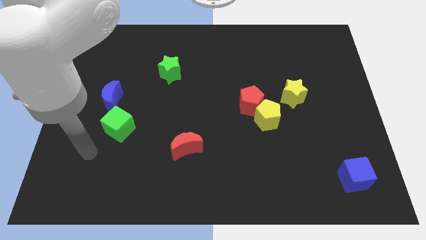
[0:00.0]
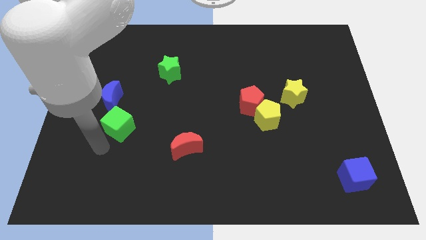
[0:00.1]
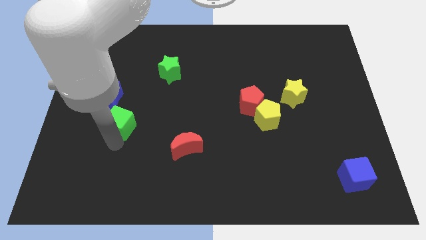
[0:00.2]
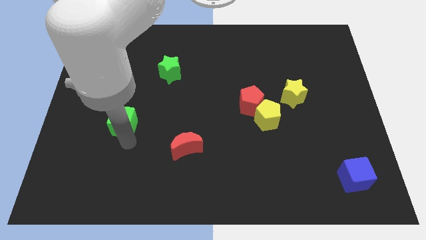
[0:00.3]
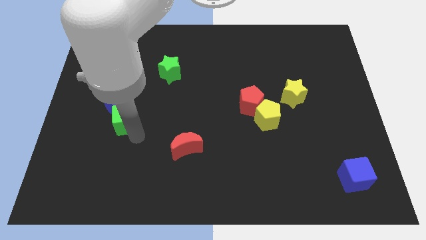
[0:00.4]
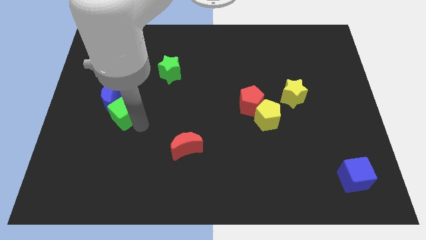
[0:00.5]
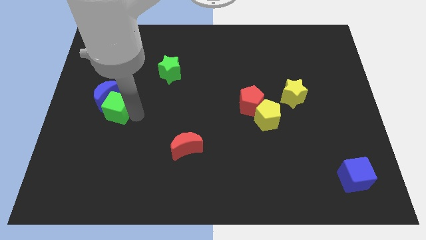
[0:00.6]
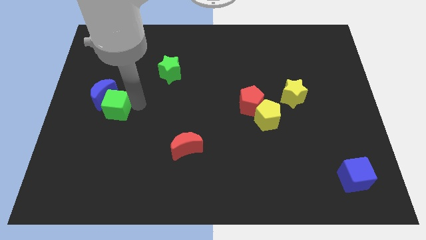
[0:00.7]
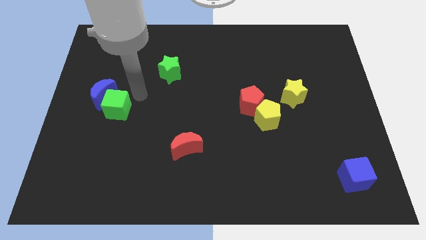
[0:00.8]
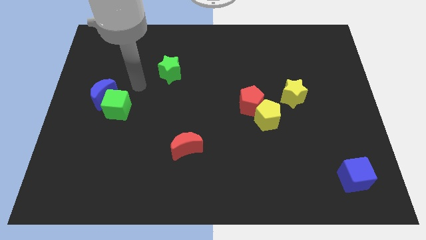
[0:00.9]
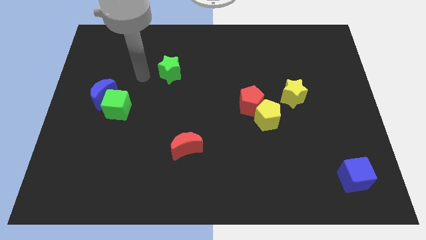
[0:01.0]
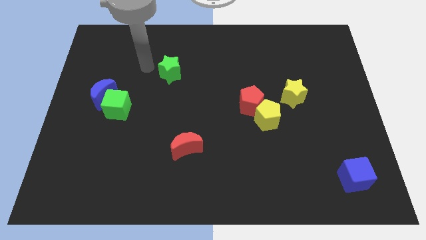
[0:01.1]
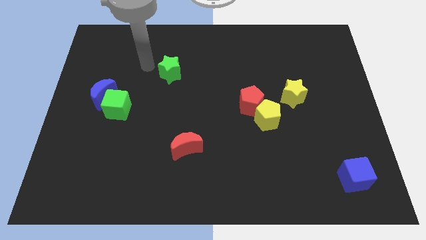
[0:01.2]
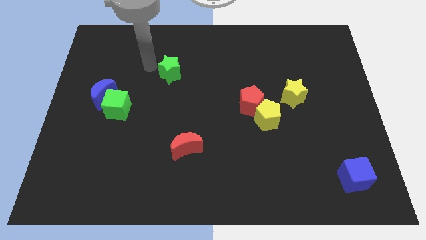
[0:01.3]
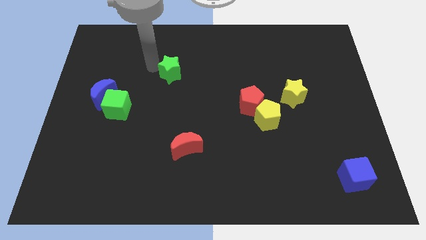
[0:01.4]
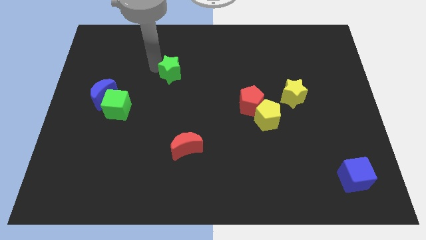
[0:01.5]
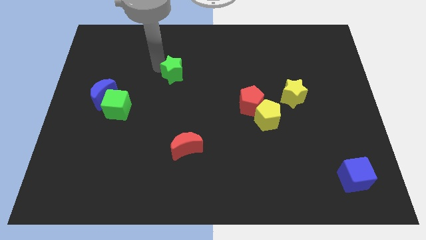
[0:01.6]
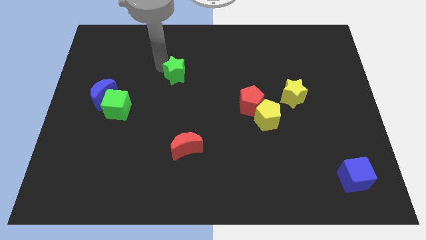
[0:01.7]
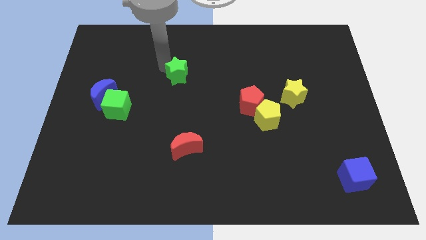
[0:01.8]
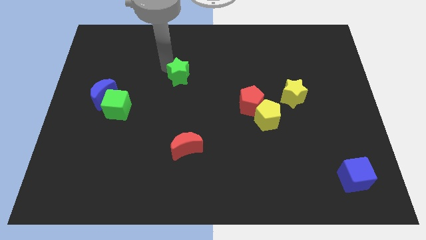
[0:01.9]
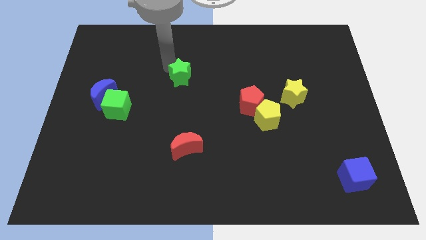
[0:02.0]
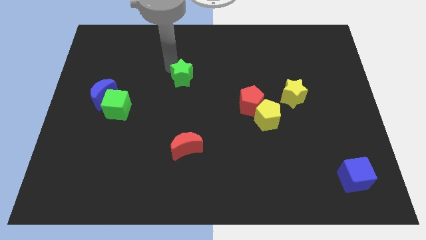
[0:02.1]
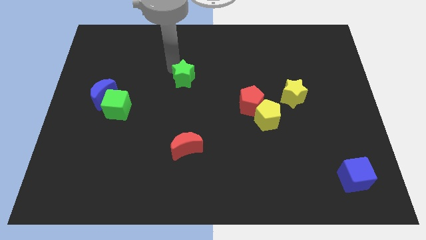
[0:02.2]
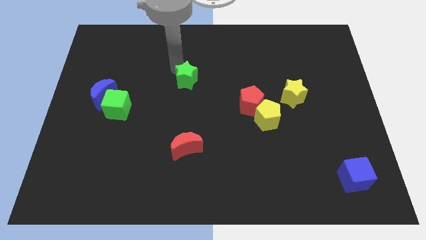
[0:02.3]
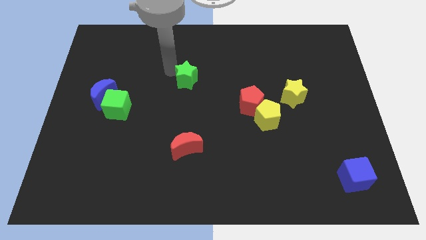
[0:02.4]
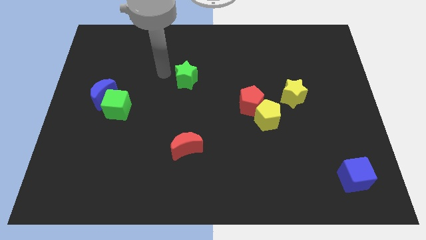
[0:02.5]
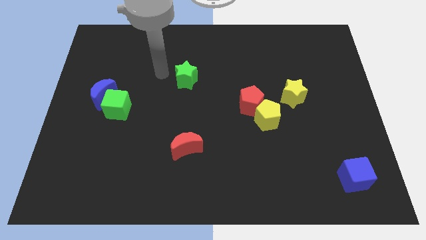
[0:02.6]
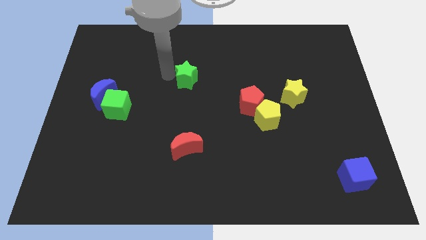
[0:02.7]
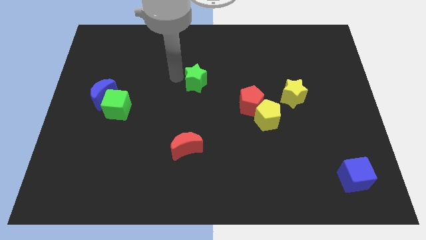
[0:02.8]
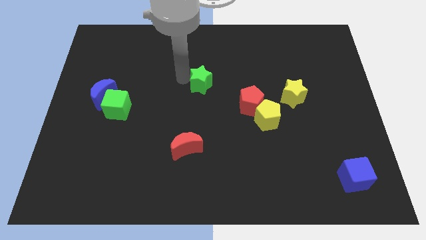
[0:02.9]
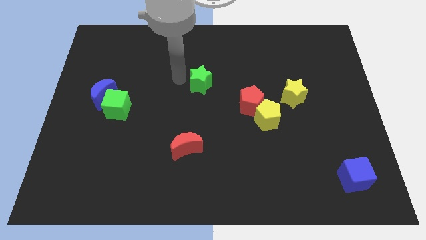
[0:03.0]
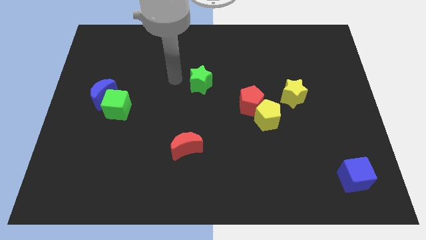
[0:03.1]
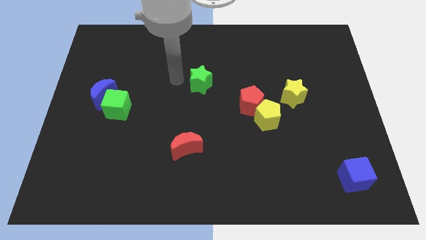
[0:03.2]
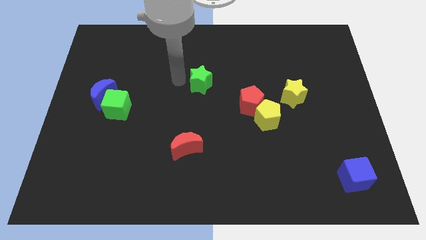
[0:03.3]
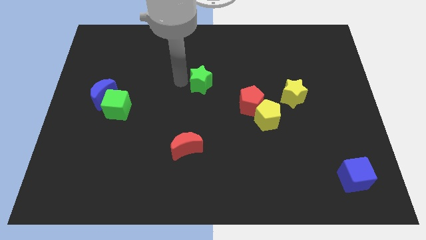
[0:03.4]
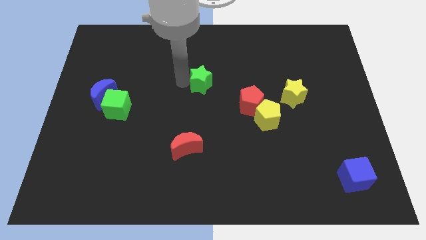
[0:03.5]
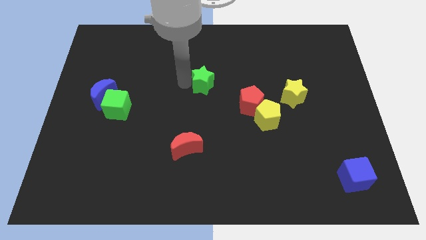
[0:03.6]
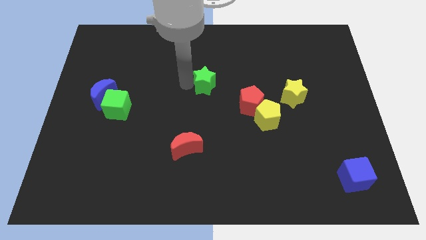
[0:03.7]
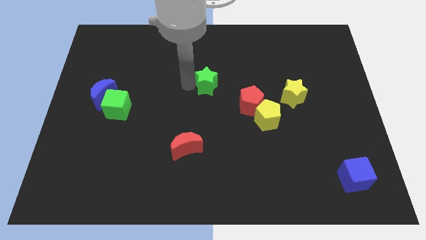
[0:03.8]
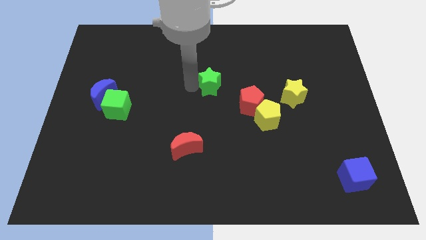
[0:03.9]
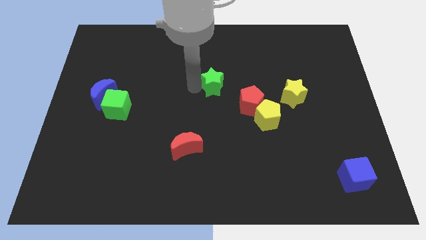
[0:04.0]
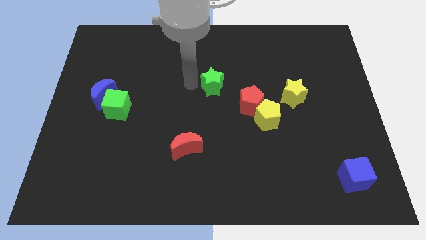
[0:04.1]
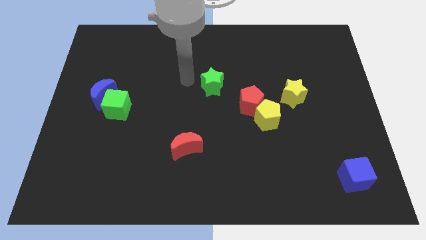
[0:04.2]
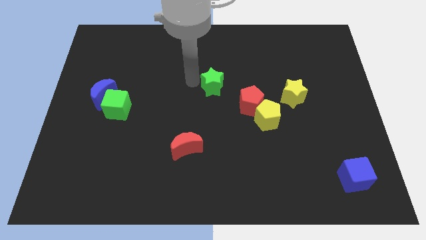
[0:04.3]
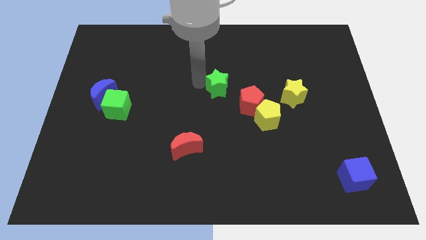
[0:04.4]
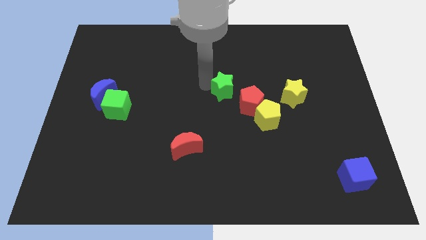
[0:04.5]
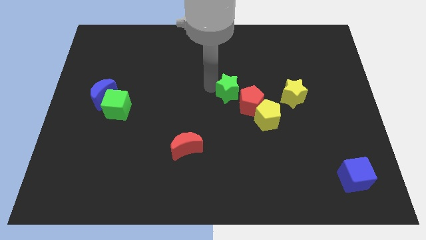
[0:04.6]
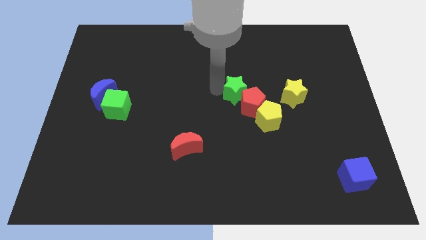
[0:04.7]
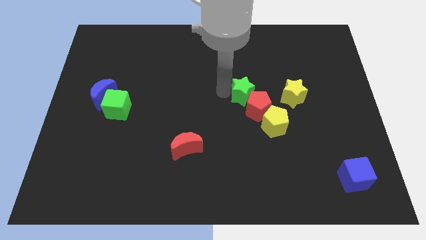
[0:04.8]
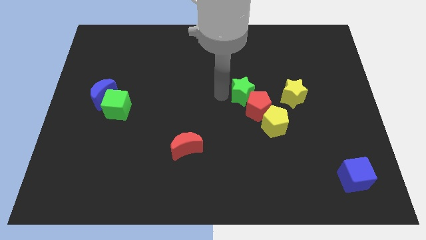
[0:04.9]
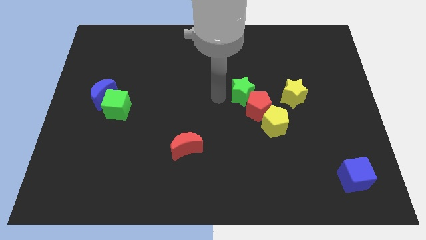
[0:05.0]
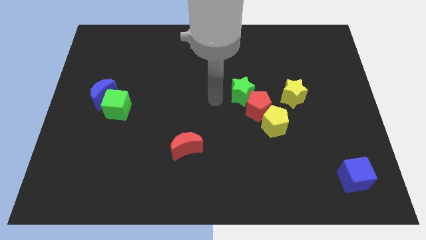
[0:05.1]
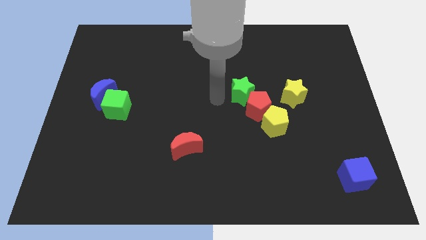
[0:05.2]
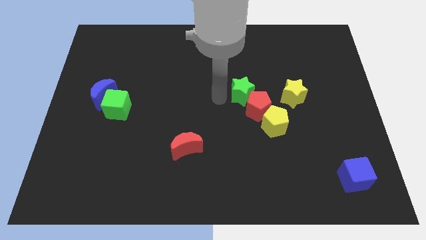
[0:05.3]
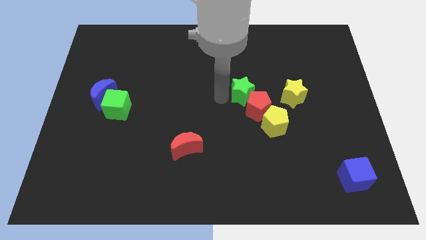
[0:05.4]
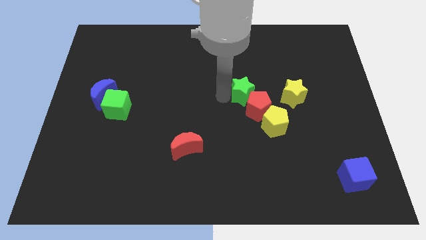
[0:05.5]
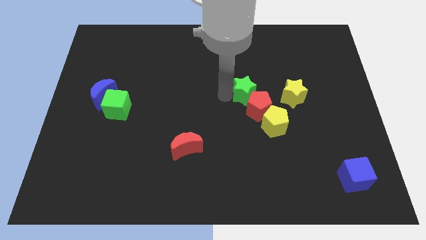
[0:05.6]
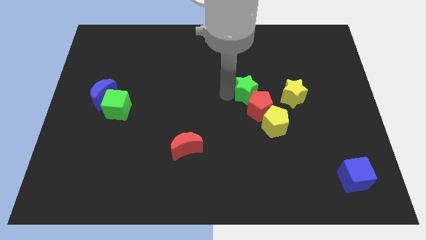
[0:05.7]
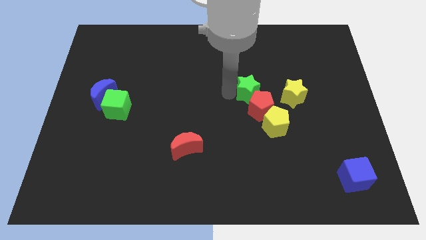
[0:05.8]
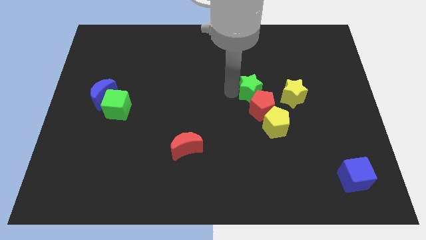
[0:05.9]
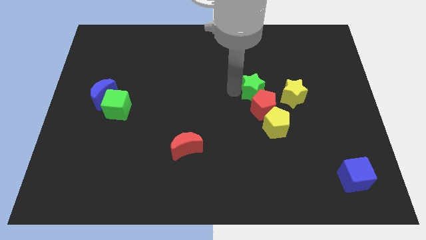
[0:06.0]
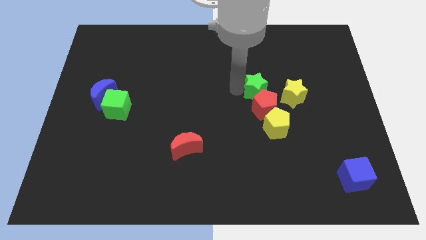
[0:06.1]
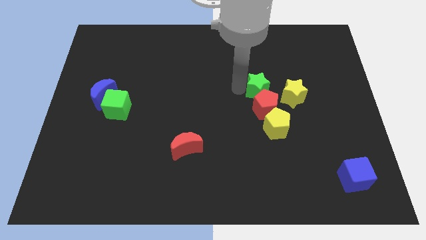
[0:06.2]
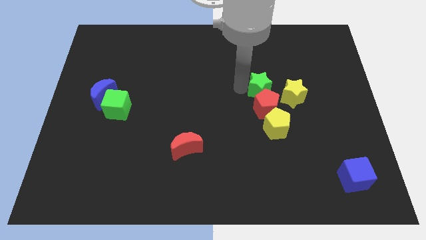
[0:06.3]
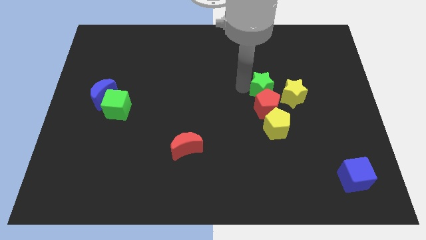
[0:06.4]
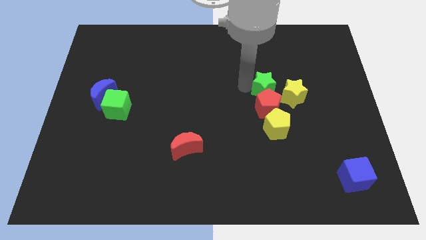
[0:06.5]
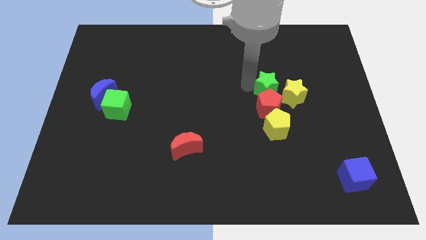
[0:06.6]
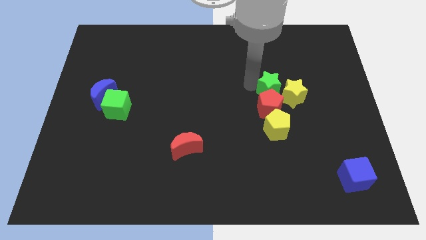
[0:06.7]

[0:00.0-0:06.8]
slide the green star next to the yellow star
